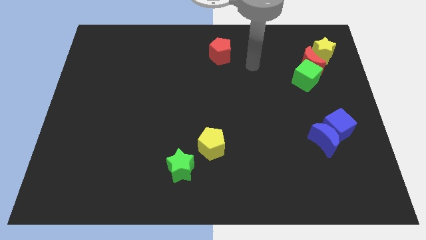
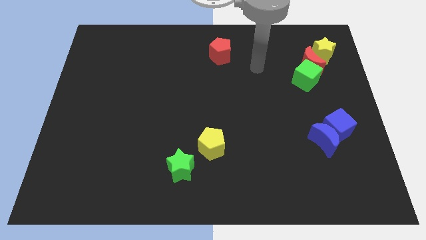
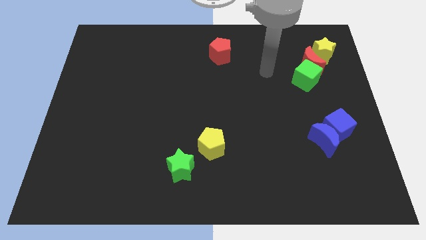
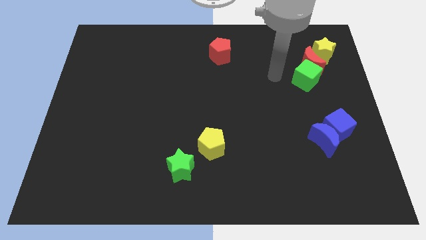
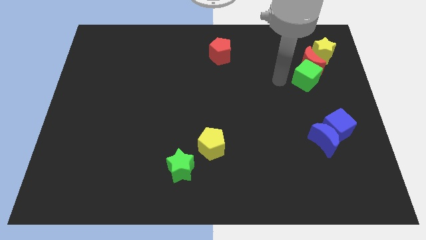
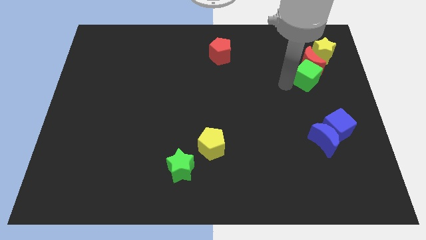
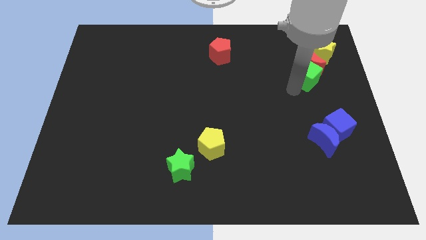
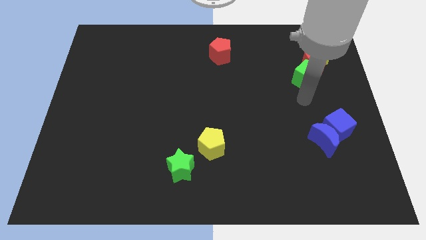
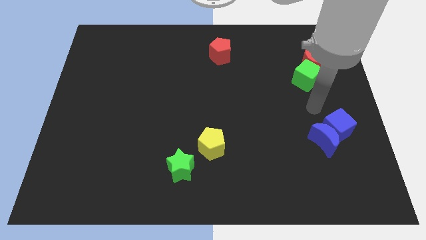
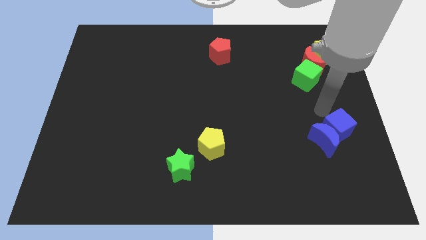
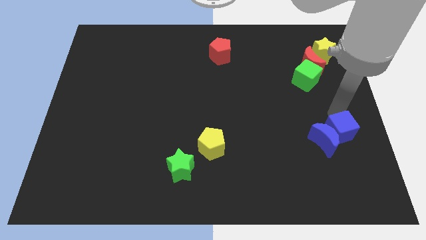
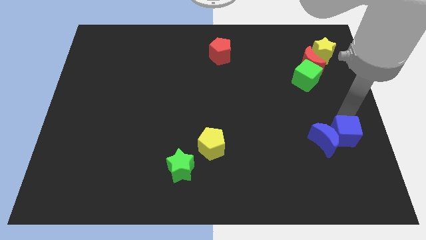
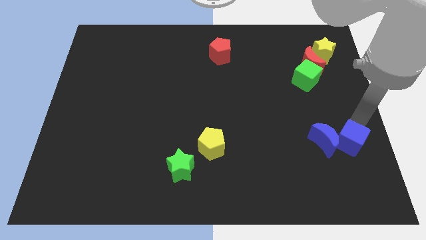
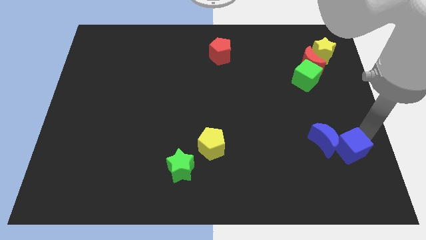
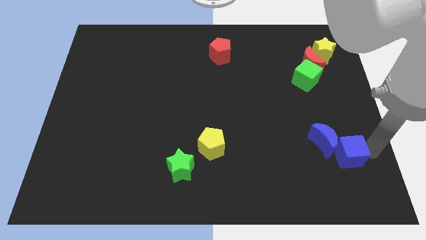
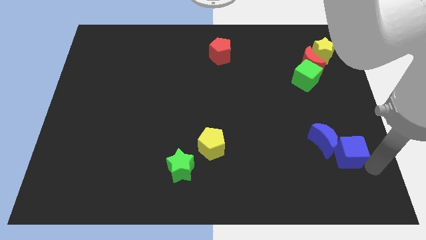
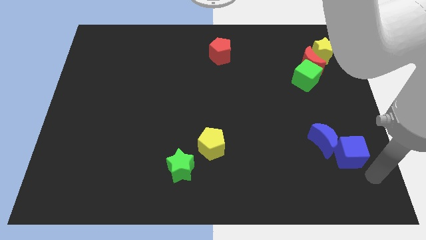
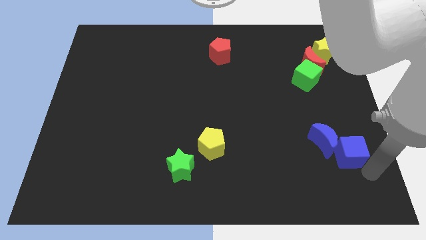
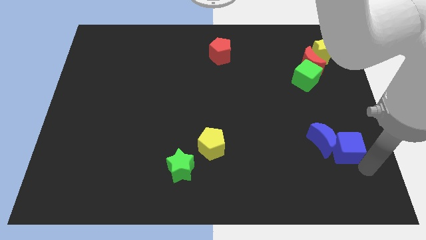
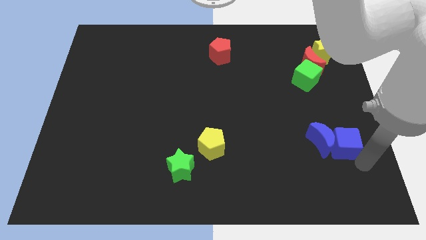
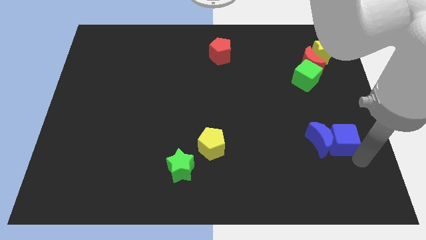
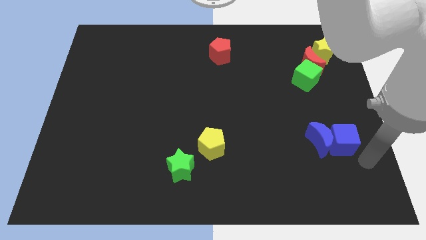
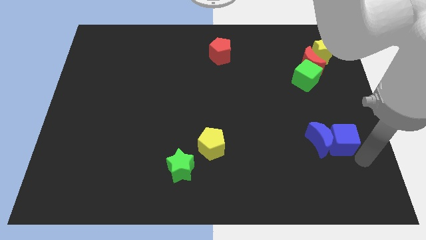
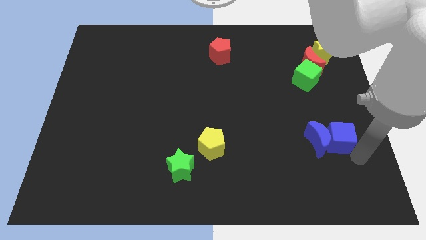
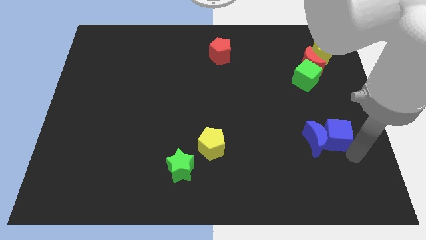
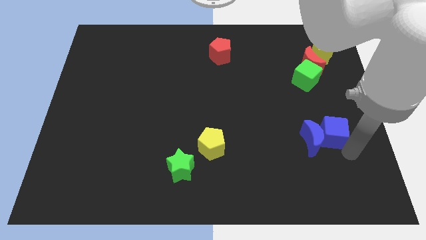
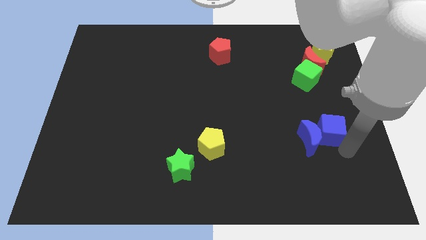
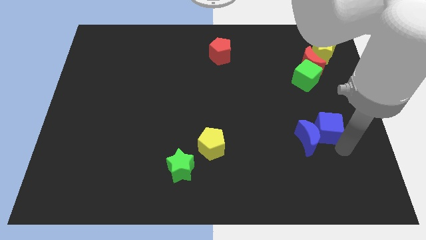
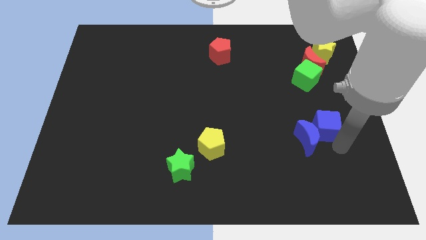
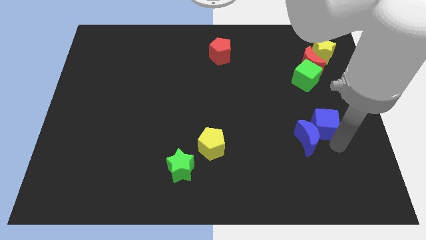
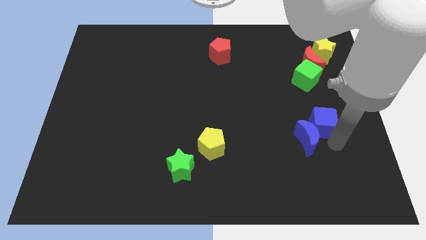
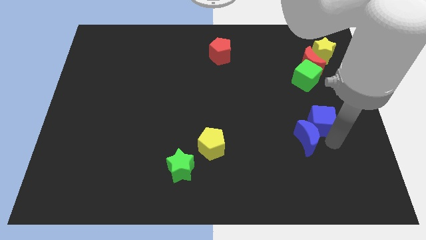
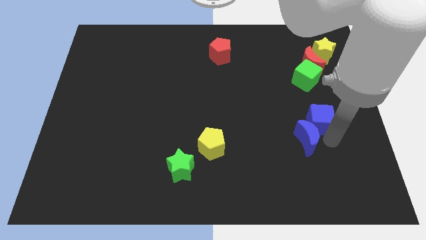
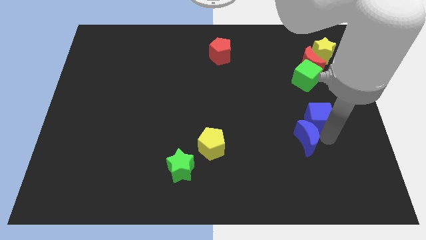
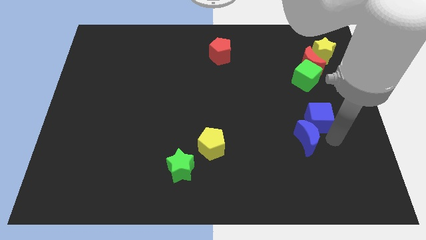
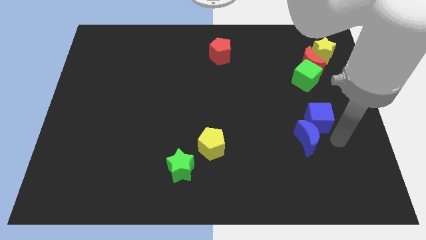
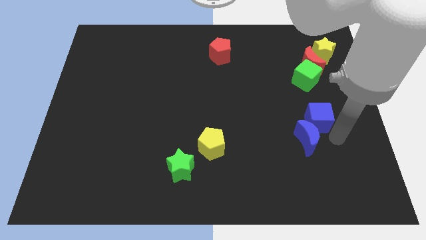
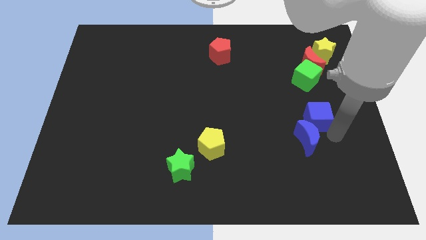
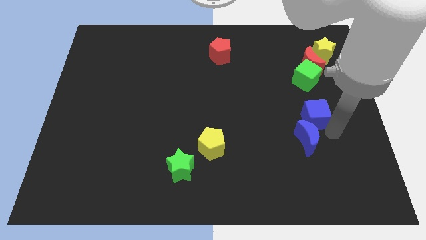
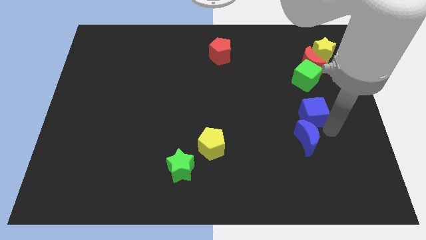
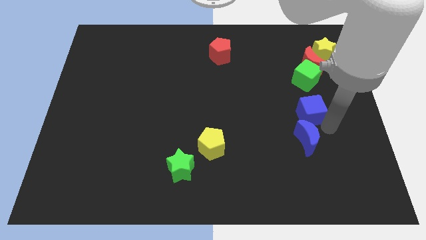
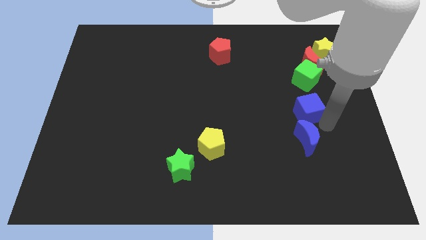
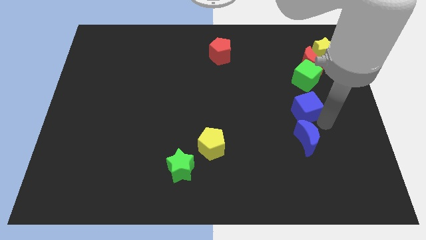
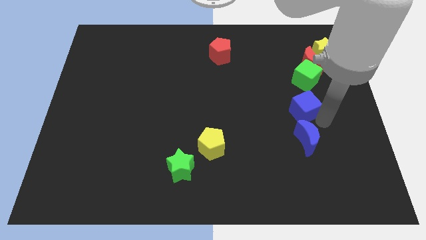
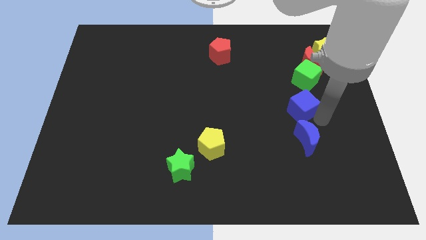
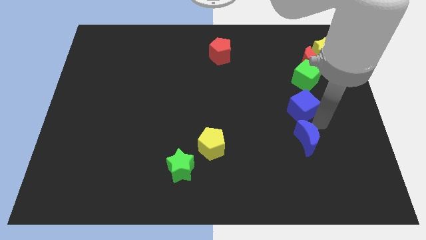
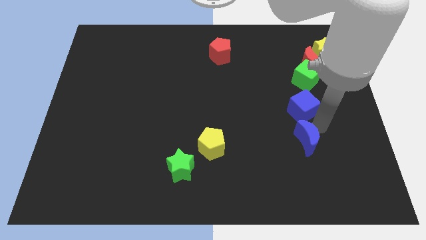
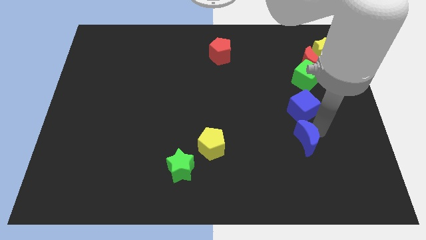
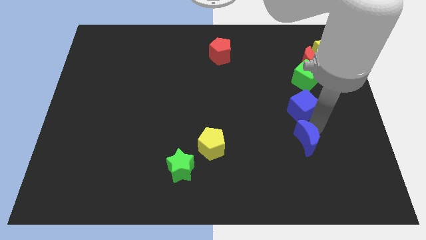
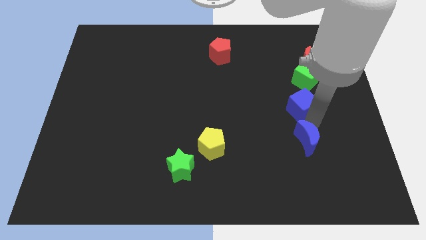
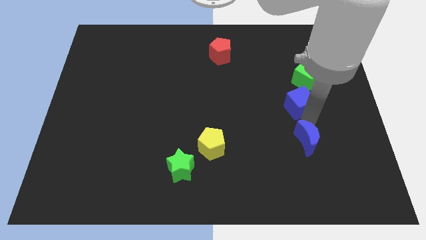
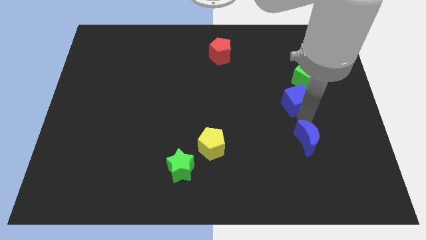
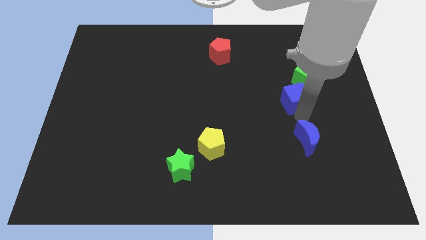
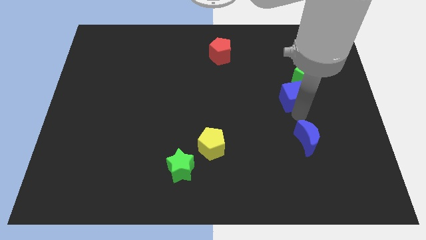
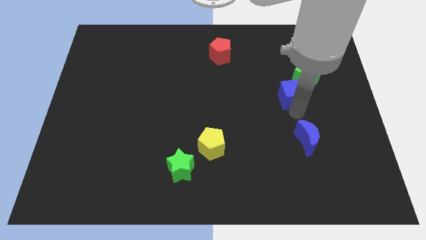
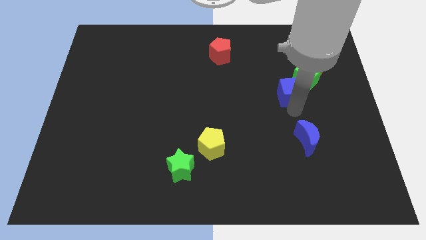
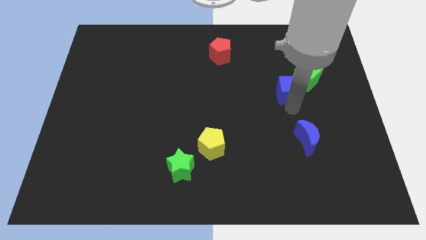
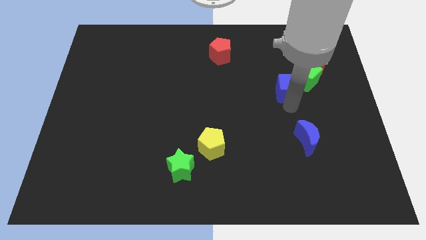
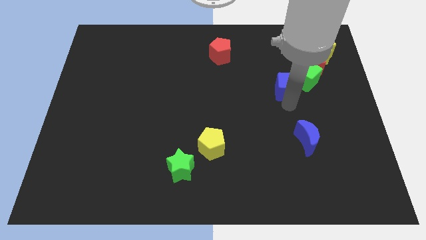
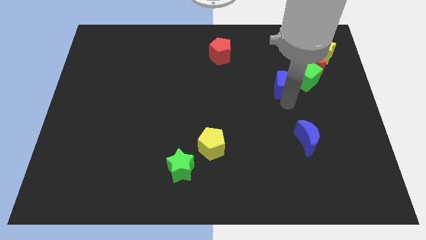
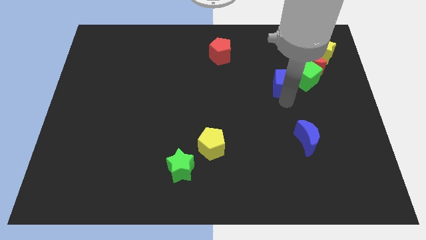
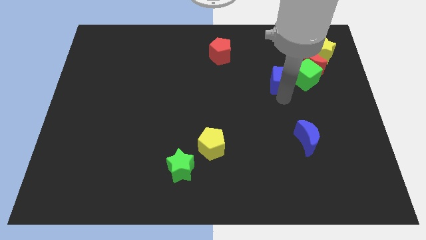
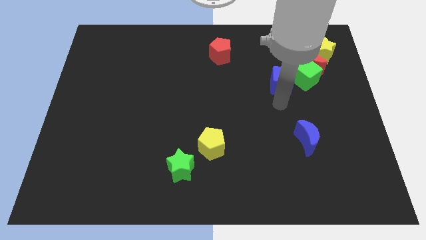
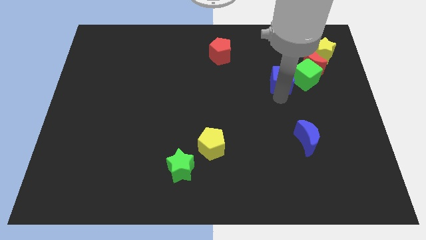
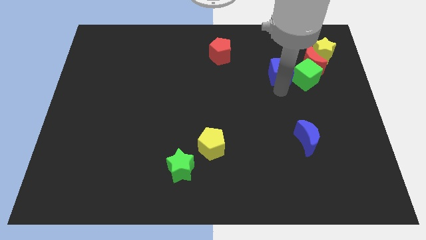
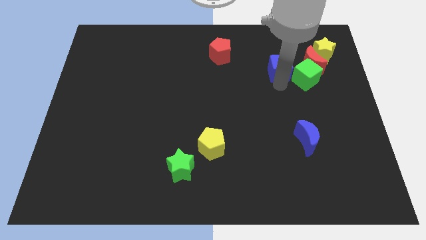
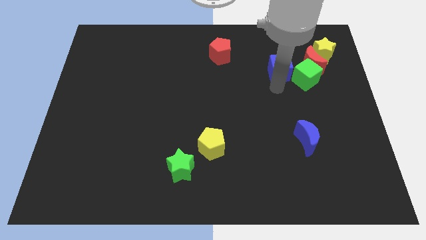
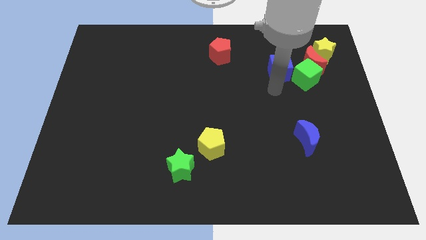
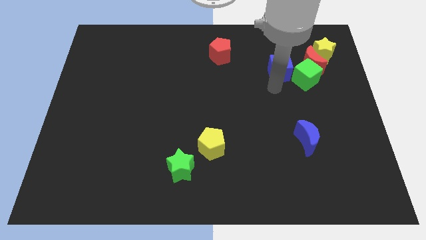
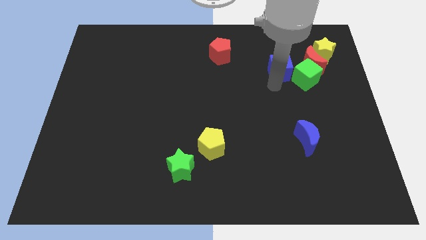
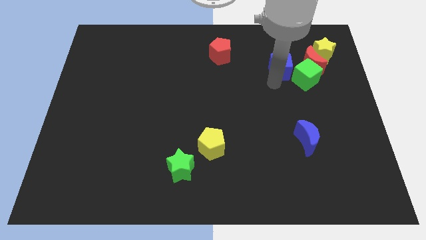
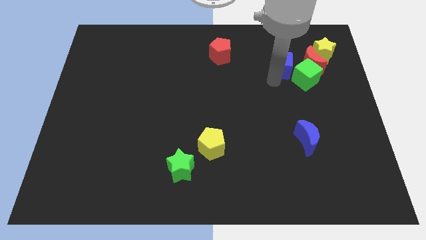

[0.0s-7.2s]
move the blue cube to the left side of the yellow star
